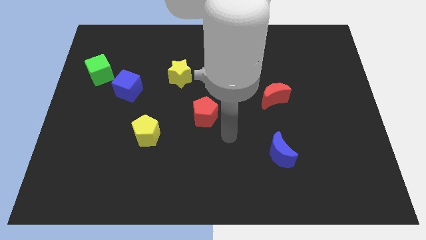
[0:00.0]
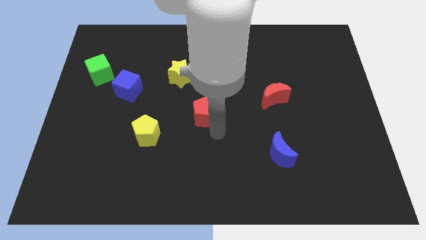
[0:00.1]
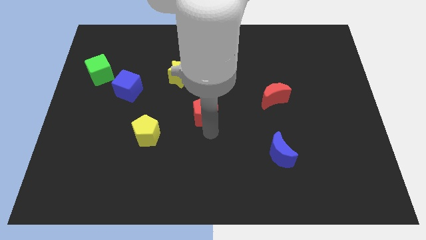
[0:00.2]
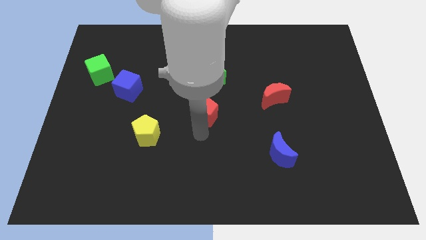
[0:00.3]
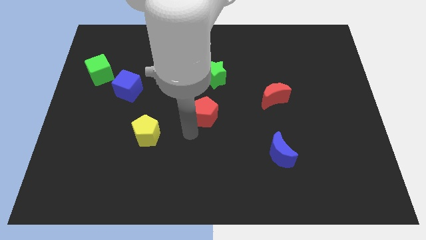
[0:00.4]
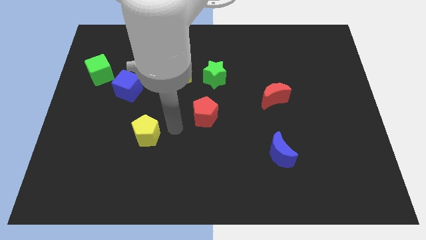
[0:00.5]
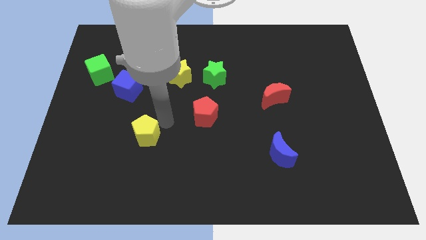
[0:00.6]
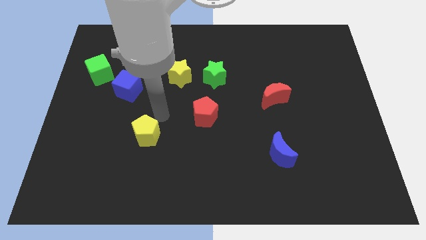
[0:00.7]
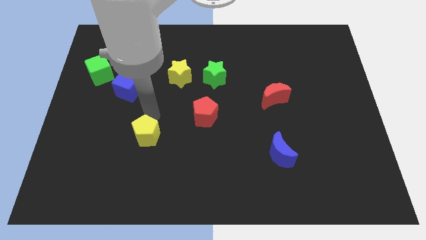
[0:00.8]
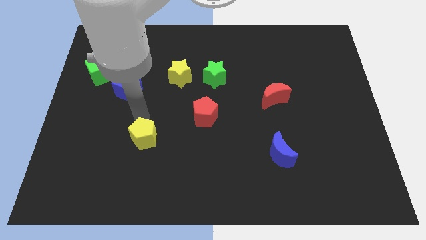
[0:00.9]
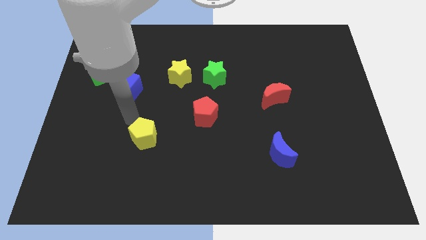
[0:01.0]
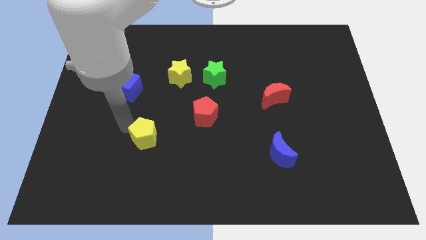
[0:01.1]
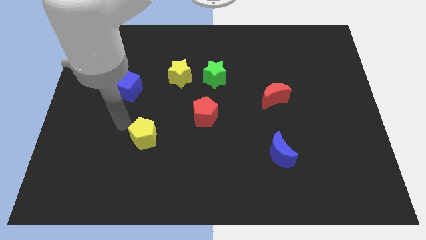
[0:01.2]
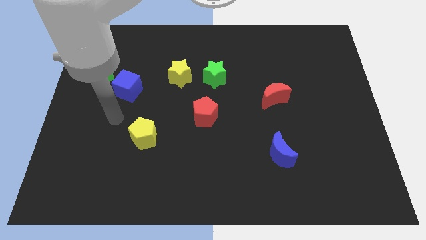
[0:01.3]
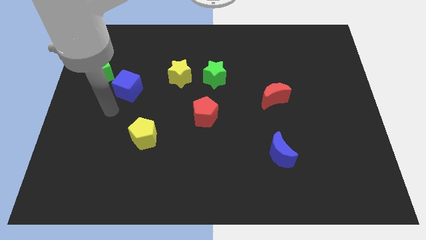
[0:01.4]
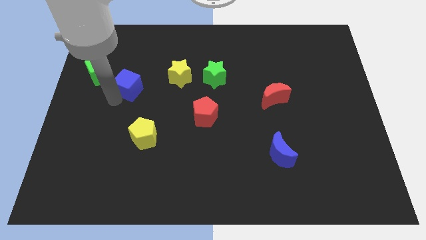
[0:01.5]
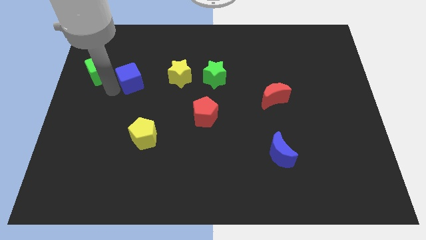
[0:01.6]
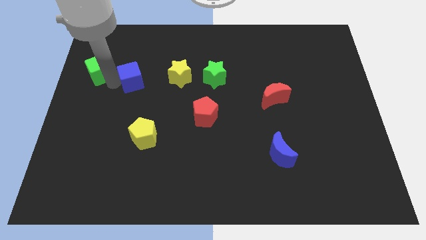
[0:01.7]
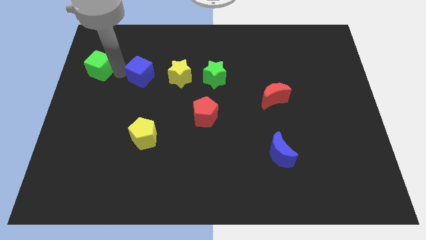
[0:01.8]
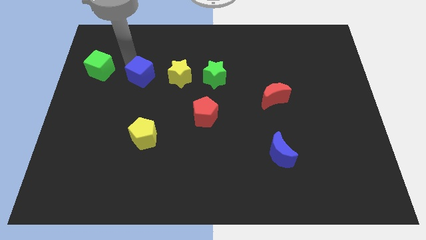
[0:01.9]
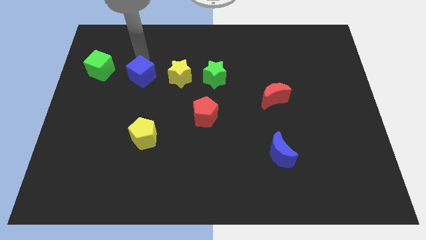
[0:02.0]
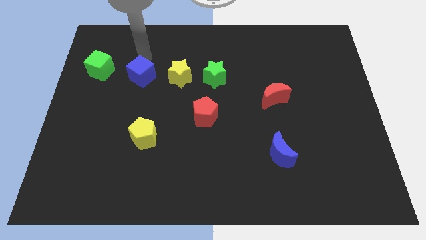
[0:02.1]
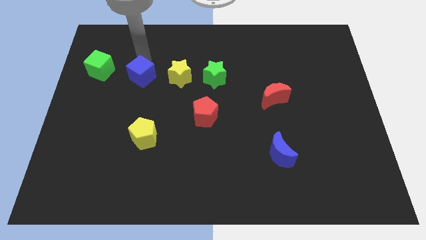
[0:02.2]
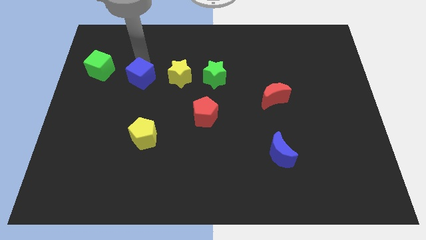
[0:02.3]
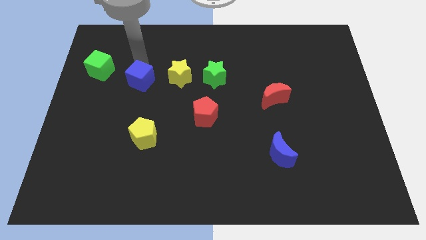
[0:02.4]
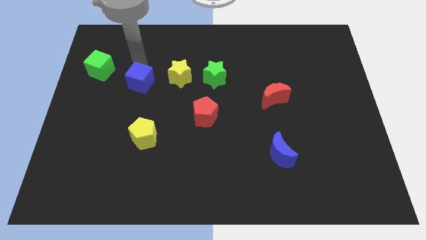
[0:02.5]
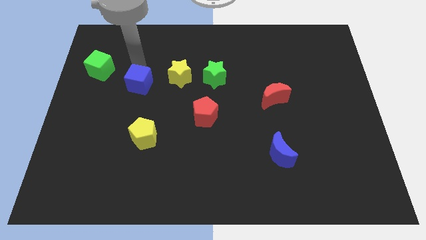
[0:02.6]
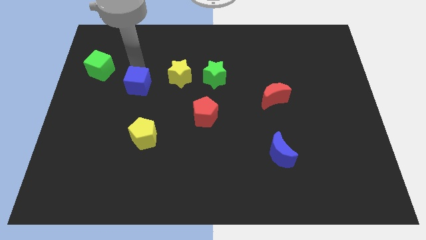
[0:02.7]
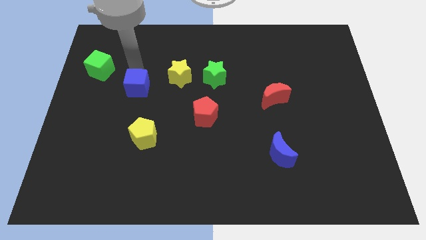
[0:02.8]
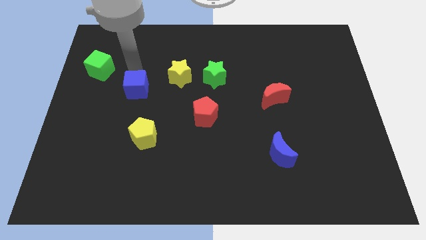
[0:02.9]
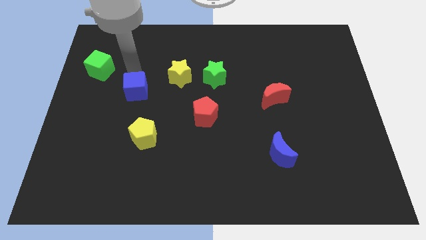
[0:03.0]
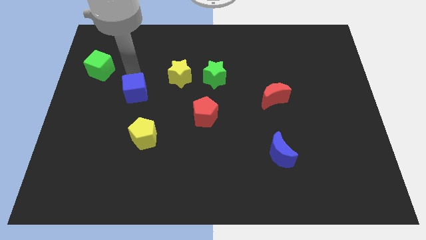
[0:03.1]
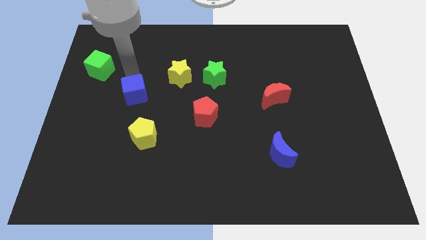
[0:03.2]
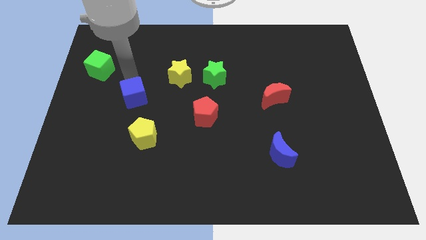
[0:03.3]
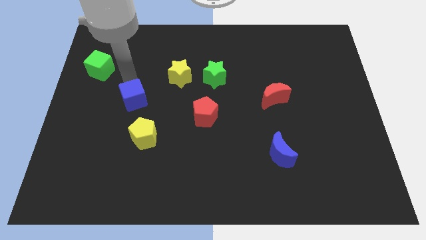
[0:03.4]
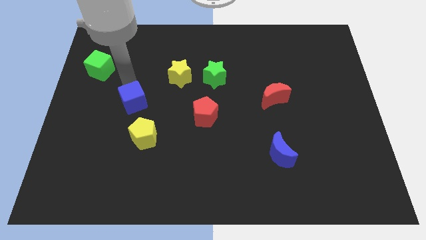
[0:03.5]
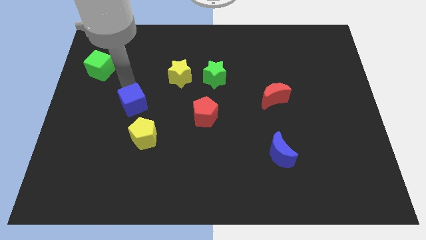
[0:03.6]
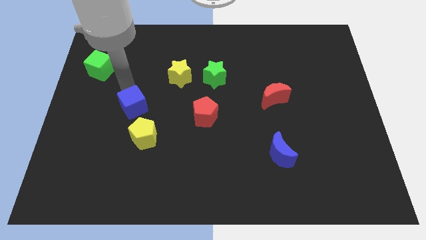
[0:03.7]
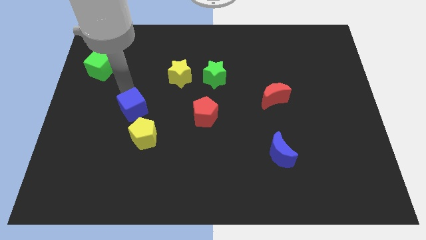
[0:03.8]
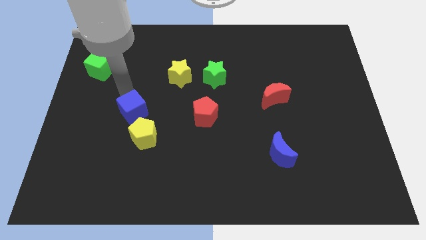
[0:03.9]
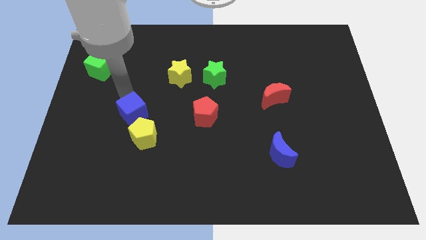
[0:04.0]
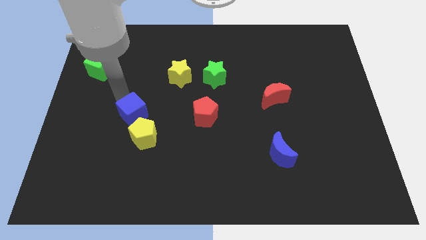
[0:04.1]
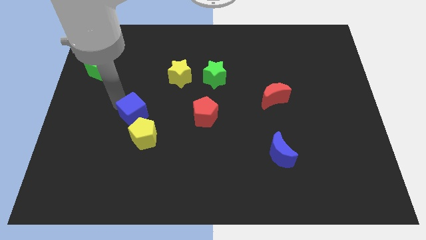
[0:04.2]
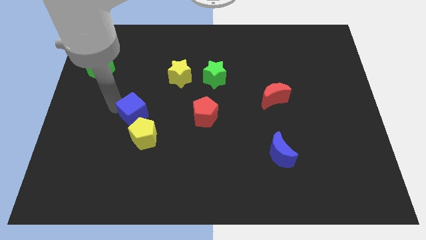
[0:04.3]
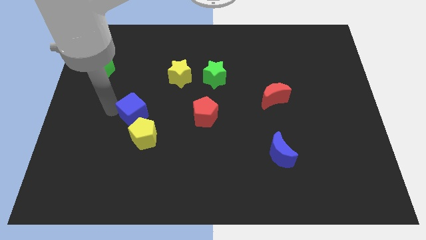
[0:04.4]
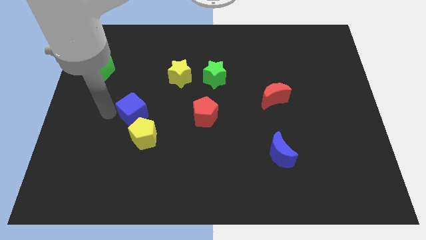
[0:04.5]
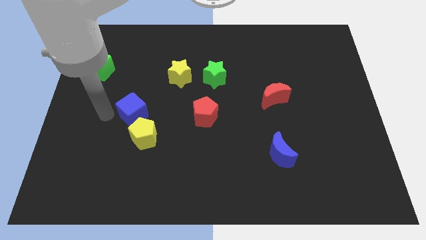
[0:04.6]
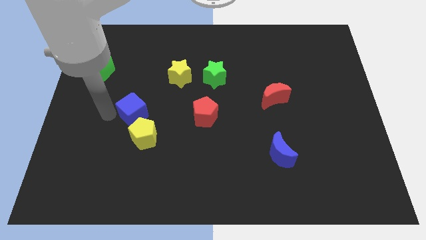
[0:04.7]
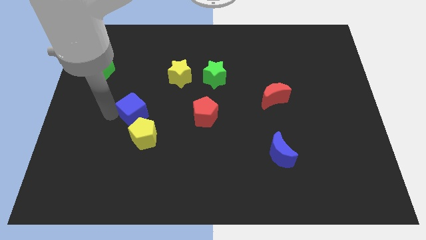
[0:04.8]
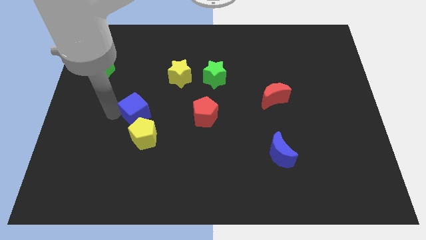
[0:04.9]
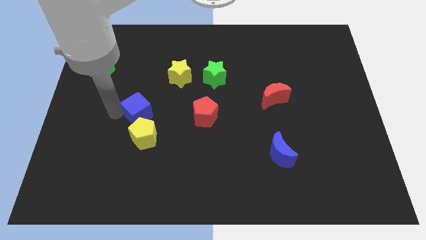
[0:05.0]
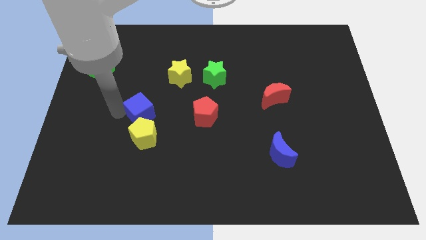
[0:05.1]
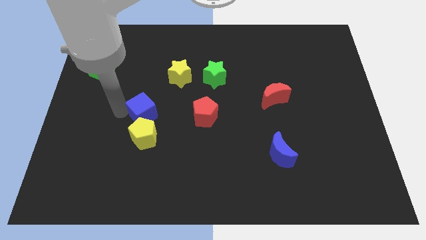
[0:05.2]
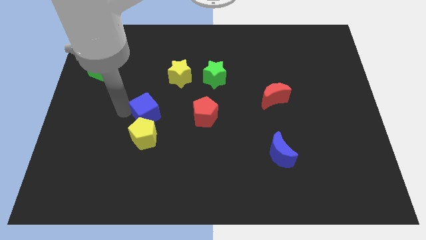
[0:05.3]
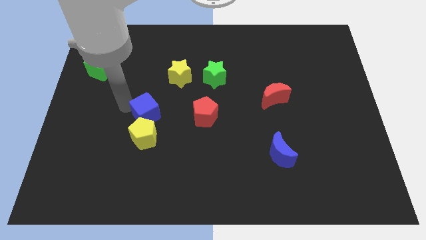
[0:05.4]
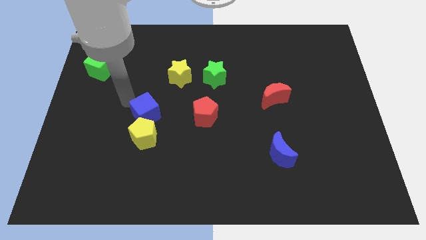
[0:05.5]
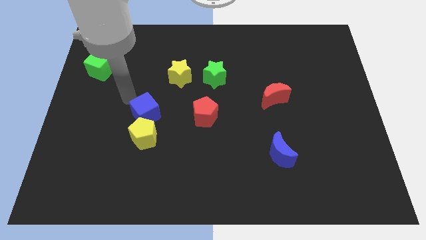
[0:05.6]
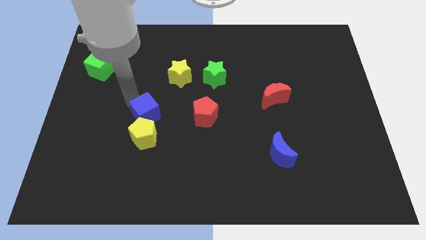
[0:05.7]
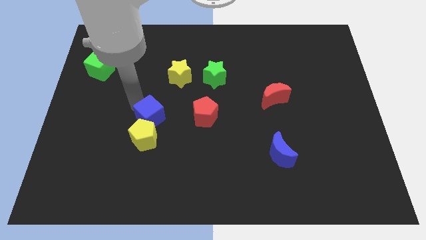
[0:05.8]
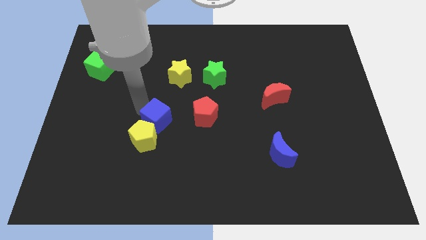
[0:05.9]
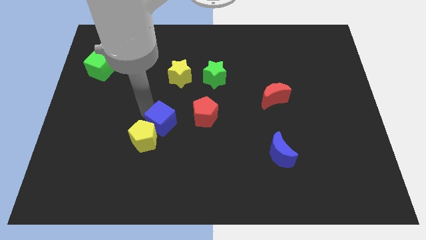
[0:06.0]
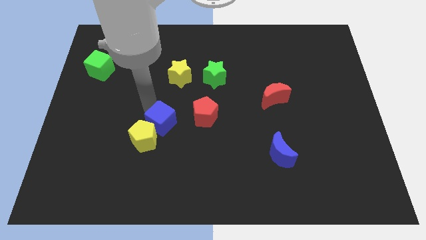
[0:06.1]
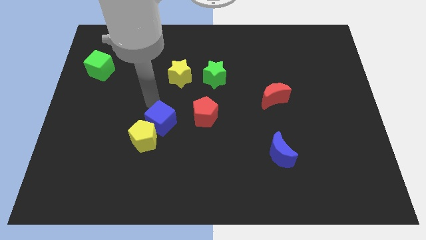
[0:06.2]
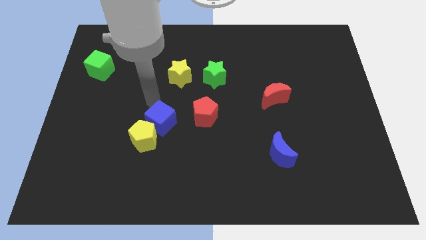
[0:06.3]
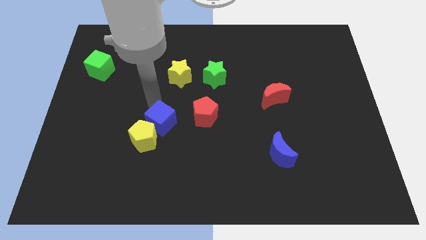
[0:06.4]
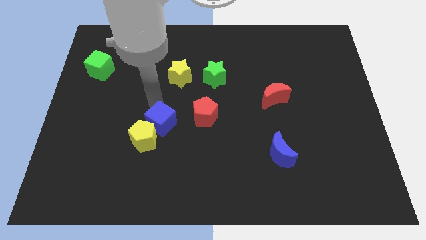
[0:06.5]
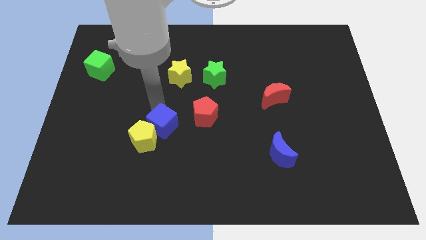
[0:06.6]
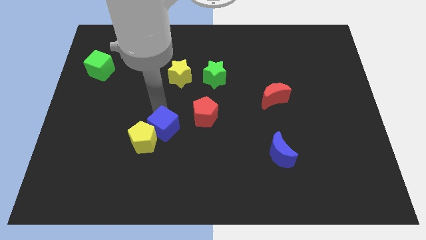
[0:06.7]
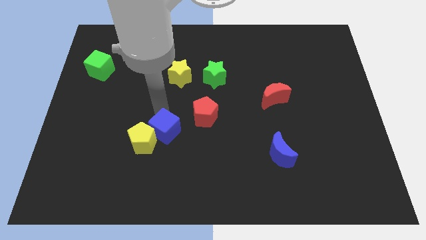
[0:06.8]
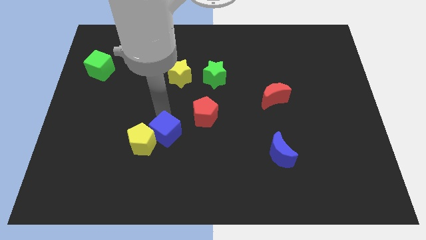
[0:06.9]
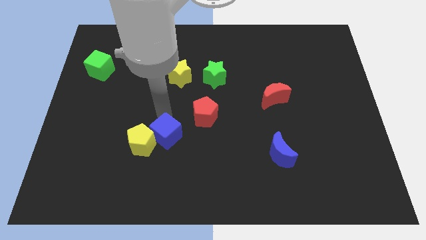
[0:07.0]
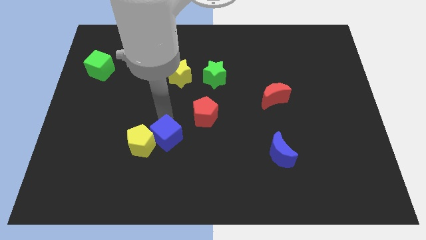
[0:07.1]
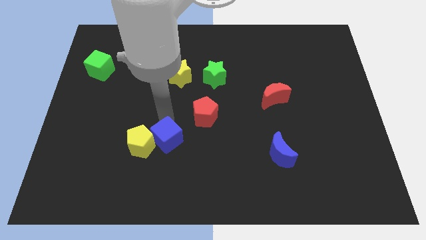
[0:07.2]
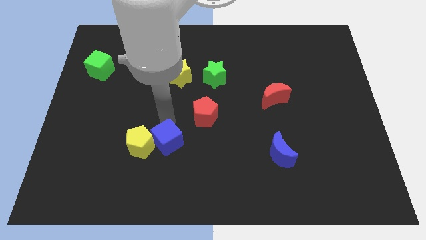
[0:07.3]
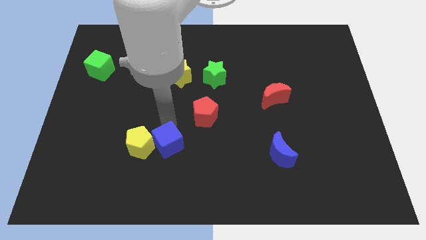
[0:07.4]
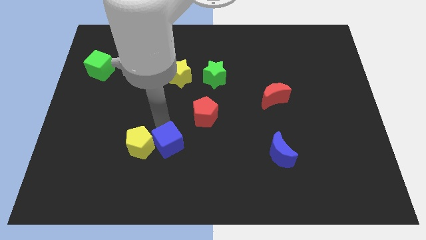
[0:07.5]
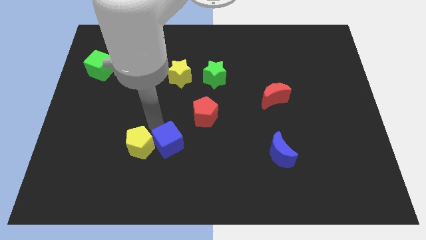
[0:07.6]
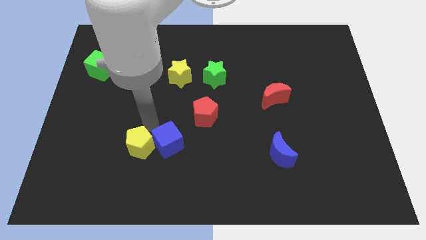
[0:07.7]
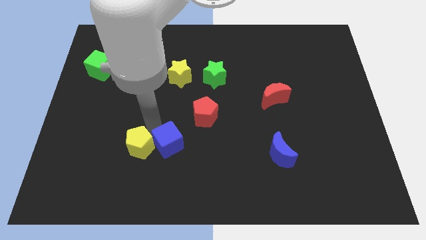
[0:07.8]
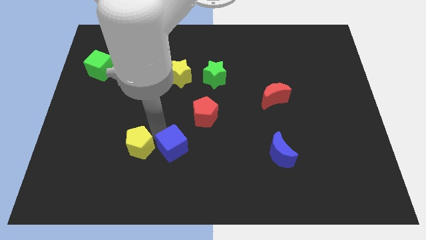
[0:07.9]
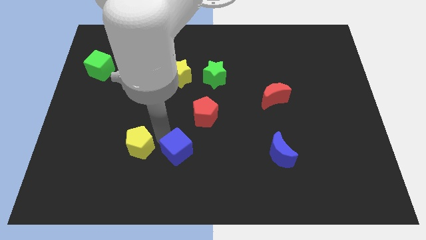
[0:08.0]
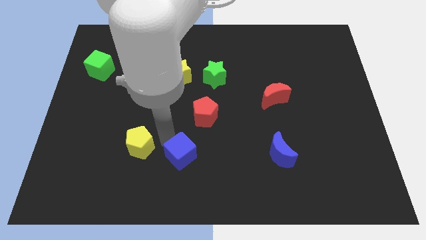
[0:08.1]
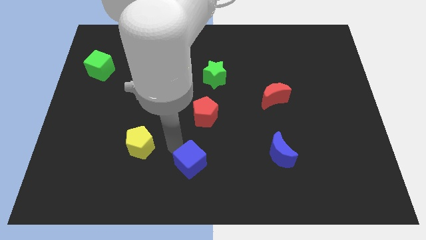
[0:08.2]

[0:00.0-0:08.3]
move the blue cube to the bottom

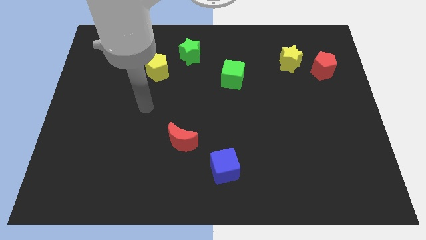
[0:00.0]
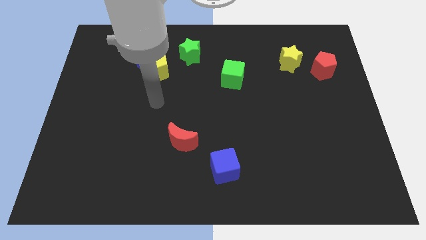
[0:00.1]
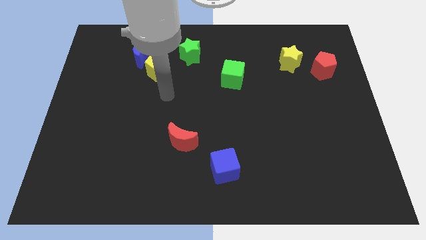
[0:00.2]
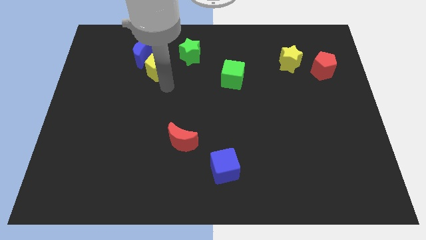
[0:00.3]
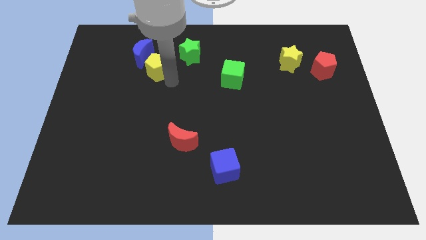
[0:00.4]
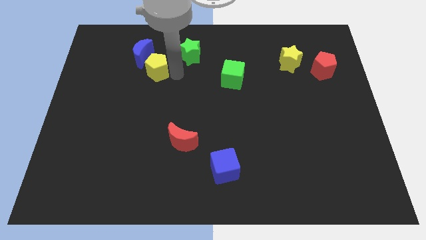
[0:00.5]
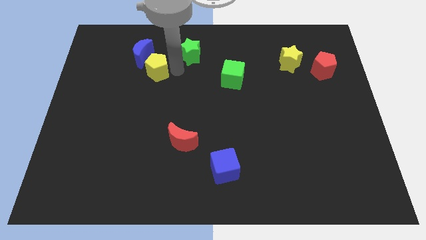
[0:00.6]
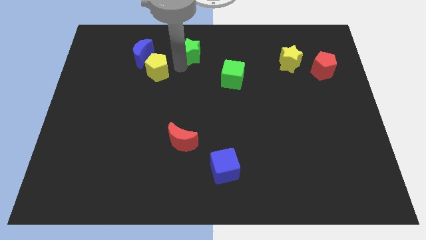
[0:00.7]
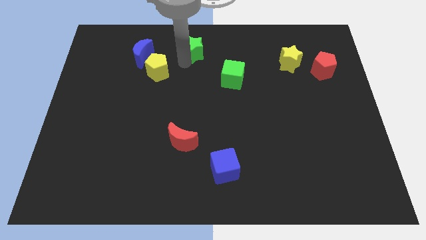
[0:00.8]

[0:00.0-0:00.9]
move the green star to the top
